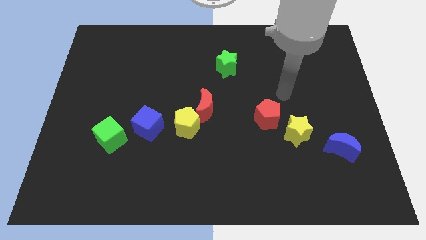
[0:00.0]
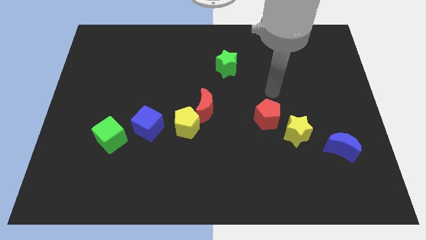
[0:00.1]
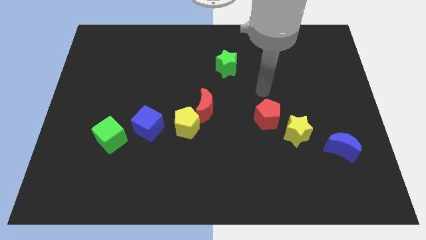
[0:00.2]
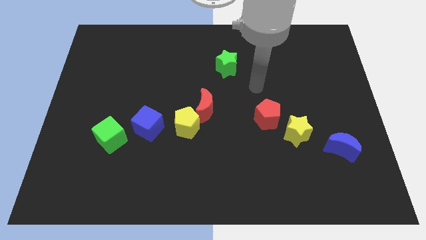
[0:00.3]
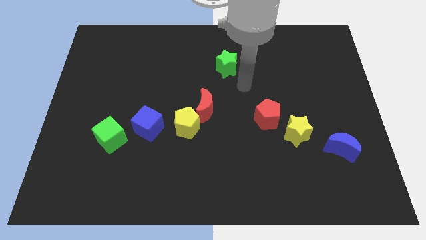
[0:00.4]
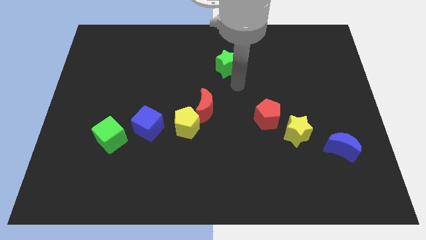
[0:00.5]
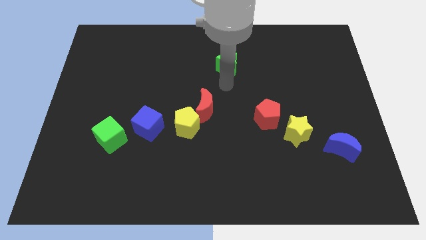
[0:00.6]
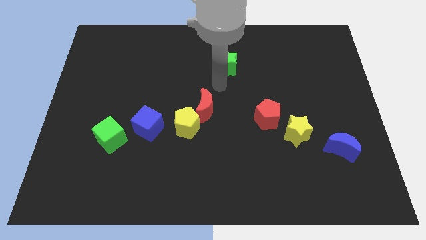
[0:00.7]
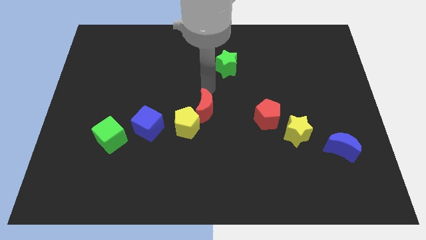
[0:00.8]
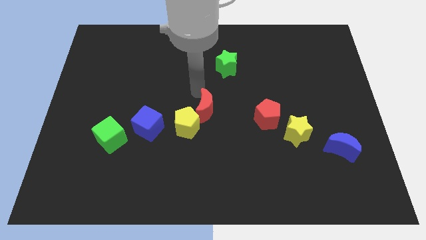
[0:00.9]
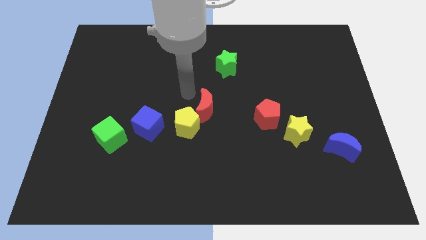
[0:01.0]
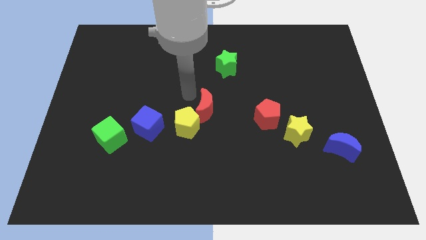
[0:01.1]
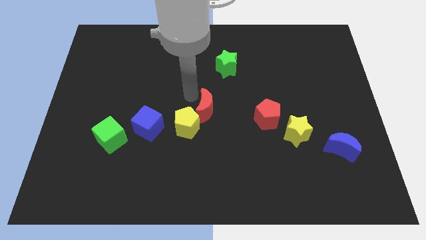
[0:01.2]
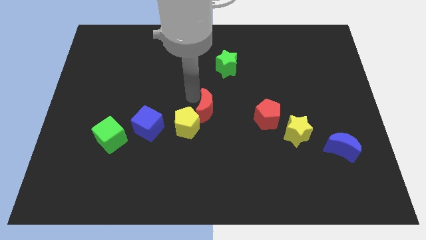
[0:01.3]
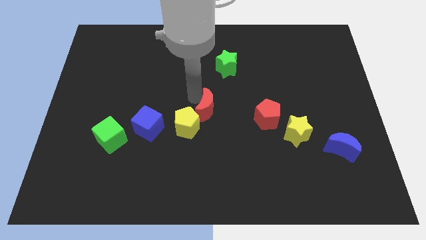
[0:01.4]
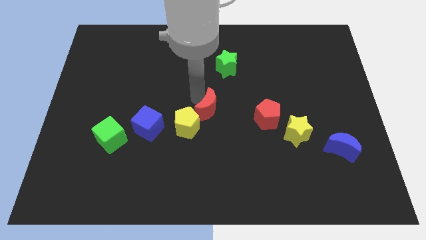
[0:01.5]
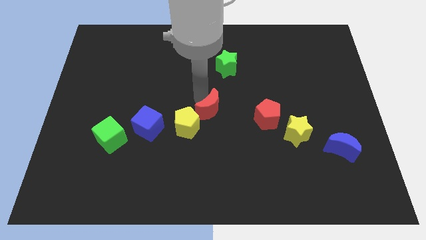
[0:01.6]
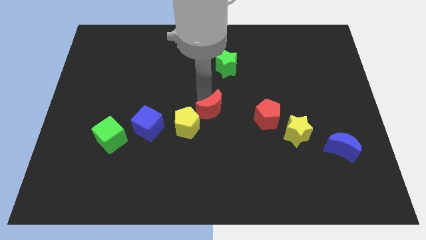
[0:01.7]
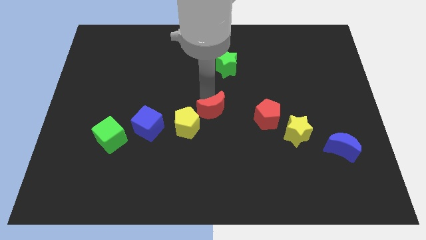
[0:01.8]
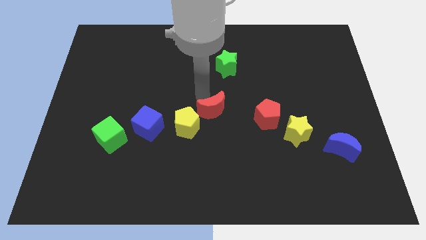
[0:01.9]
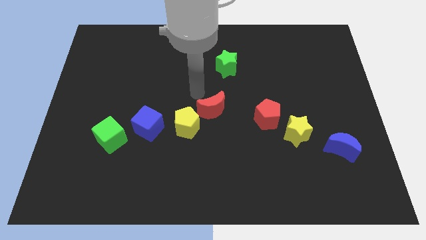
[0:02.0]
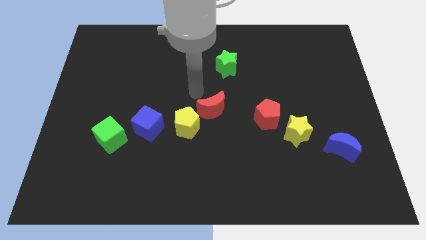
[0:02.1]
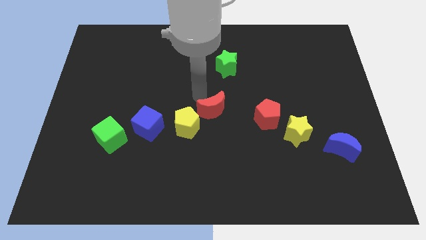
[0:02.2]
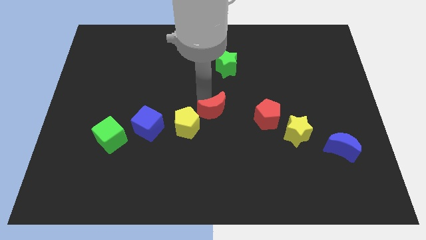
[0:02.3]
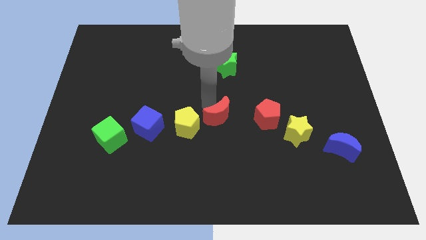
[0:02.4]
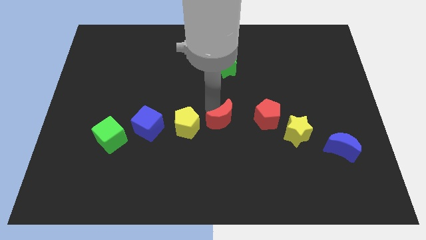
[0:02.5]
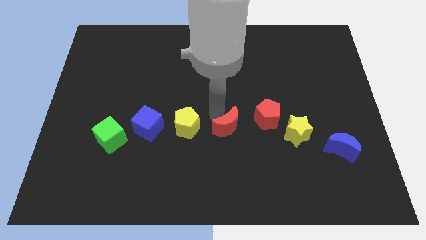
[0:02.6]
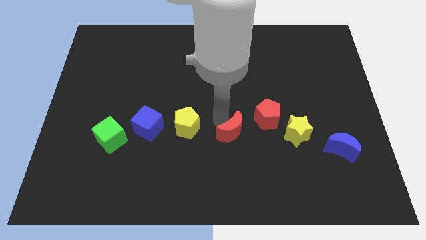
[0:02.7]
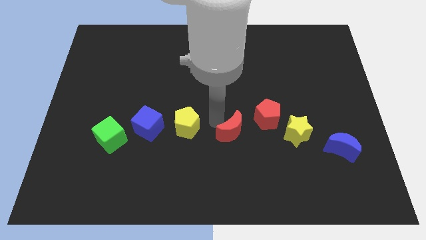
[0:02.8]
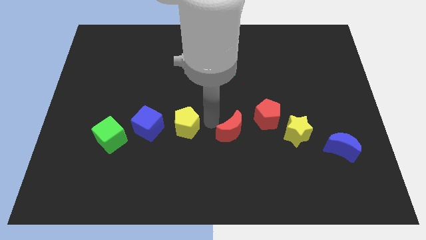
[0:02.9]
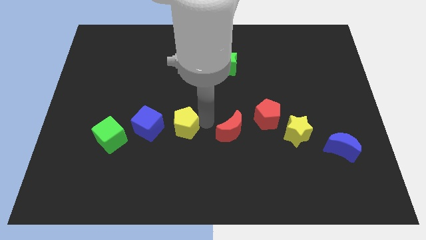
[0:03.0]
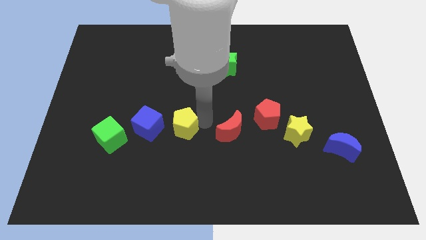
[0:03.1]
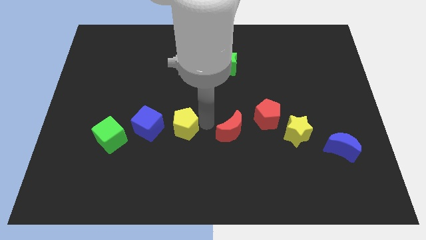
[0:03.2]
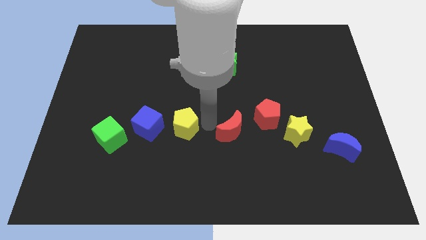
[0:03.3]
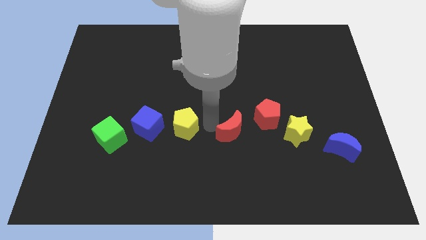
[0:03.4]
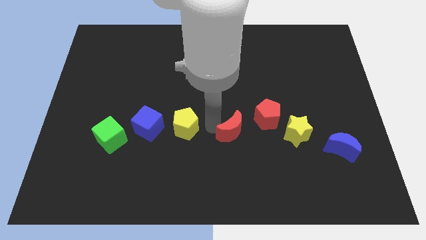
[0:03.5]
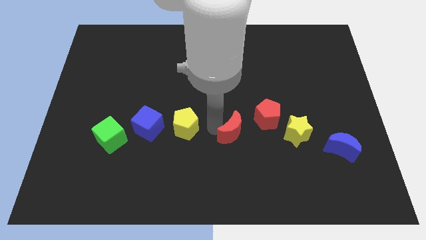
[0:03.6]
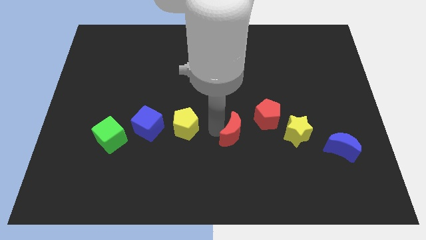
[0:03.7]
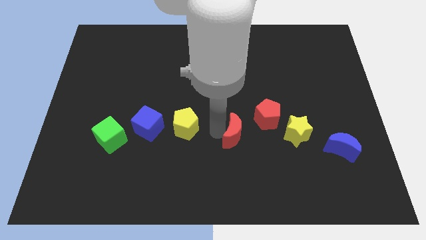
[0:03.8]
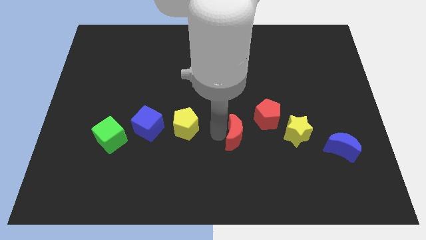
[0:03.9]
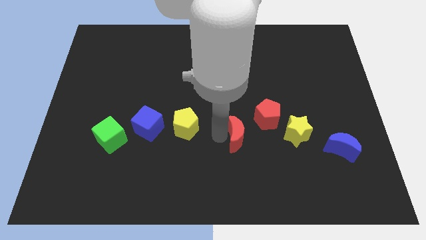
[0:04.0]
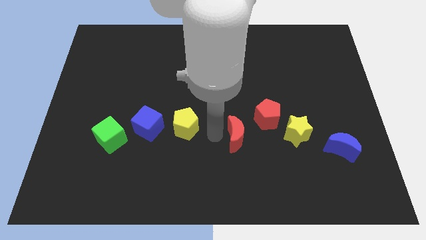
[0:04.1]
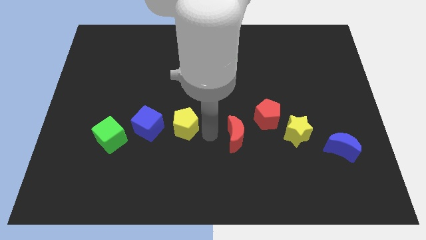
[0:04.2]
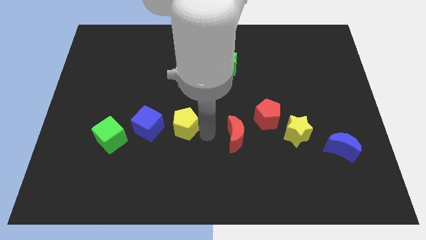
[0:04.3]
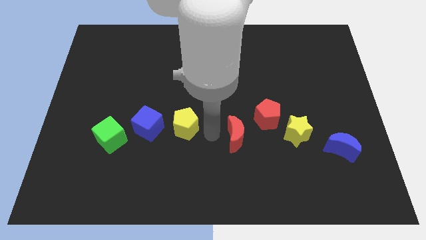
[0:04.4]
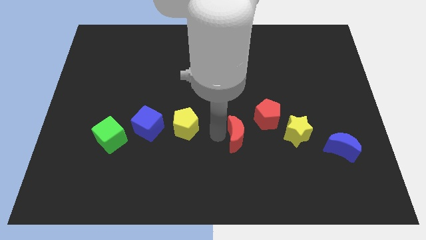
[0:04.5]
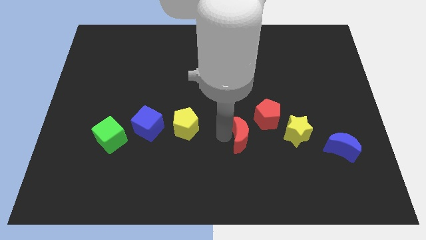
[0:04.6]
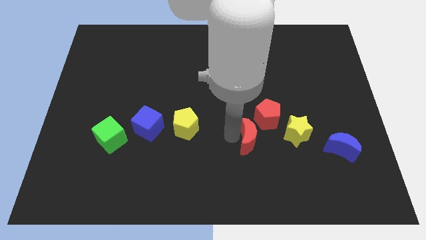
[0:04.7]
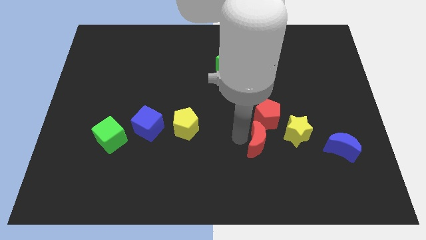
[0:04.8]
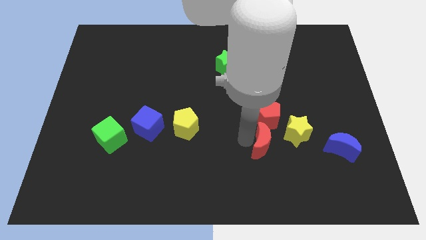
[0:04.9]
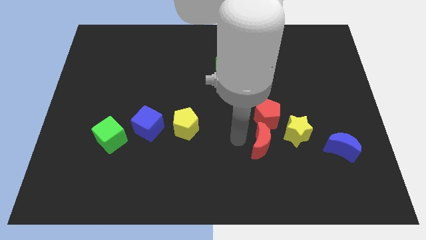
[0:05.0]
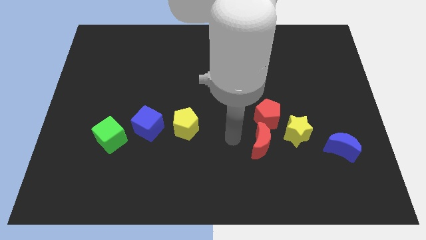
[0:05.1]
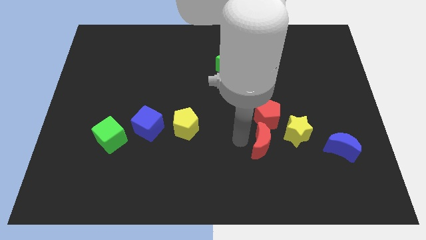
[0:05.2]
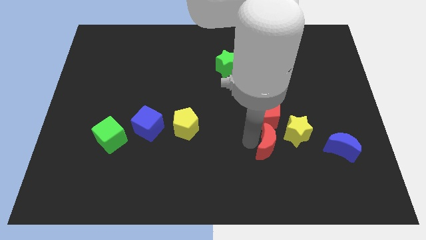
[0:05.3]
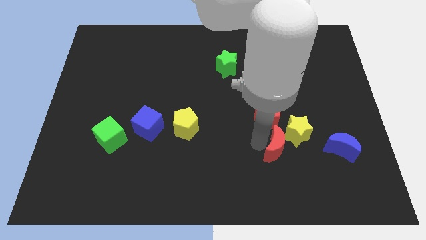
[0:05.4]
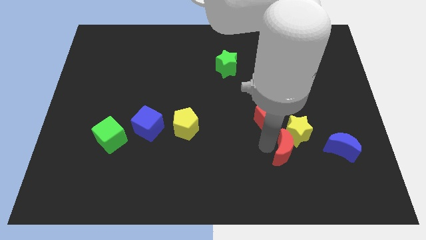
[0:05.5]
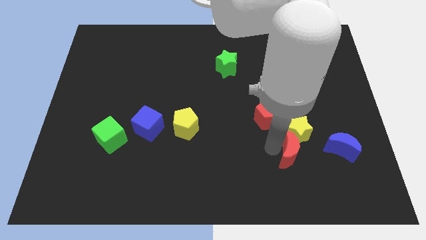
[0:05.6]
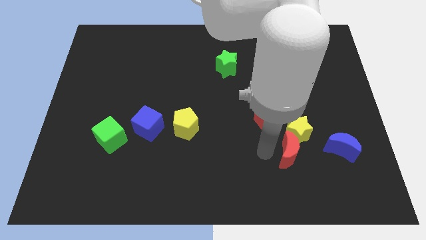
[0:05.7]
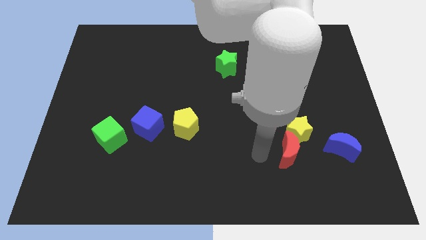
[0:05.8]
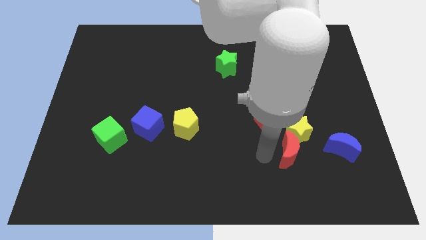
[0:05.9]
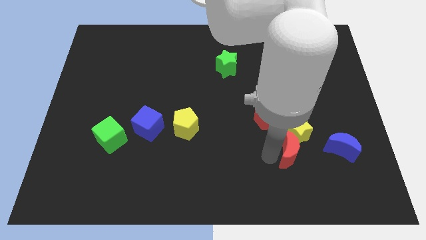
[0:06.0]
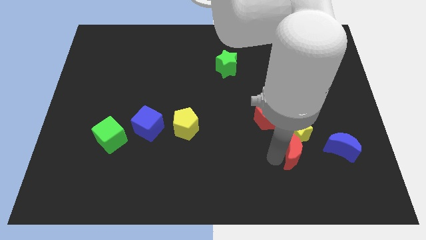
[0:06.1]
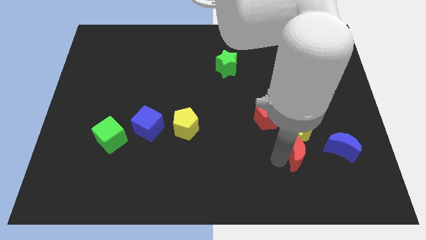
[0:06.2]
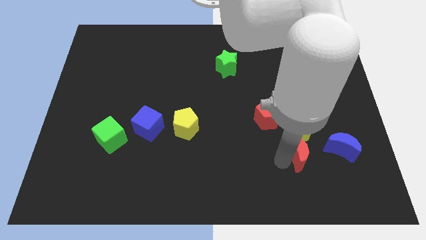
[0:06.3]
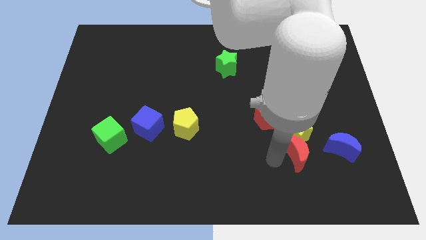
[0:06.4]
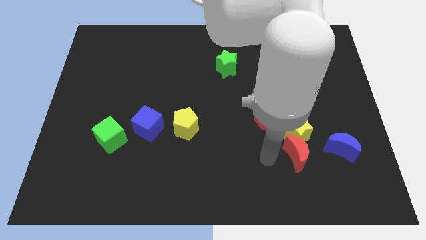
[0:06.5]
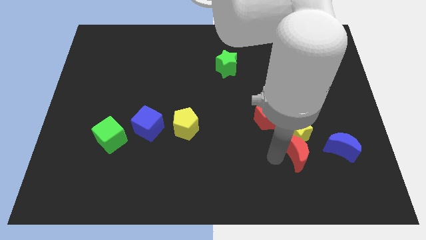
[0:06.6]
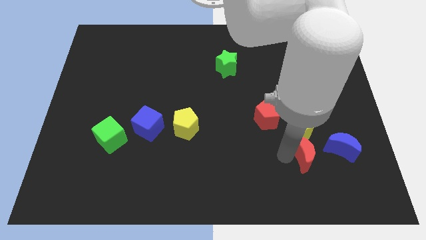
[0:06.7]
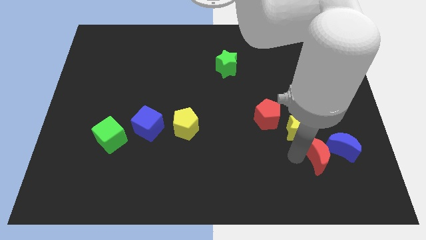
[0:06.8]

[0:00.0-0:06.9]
slide the red moon to the blue moon

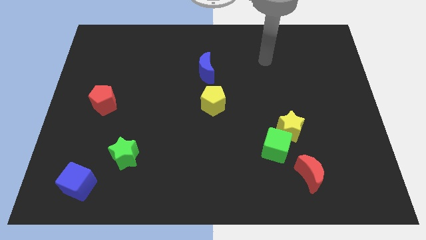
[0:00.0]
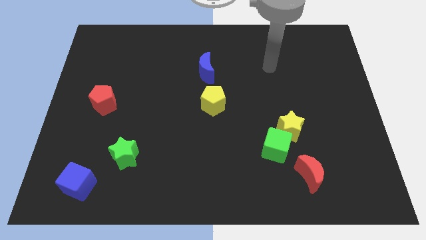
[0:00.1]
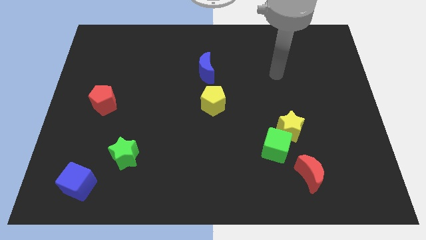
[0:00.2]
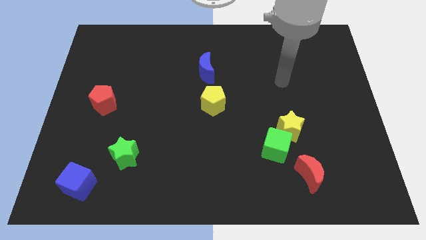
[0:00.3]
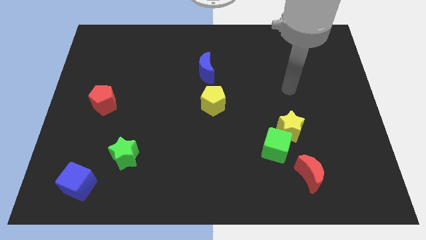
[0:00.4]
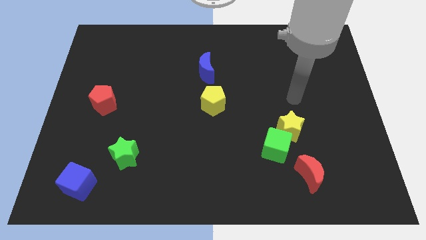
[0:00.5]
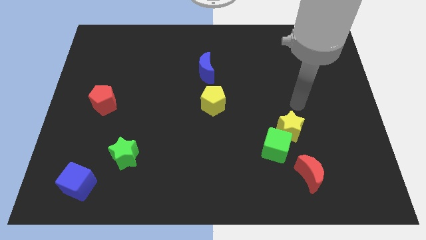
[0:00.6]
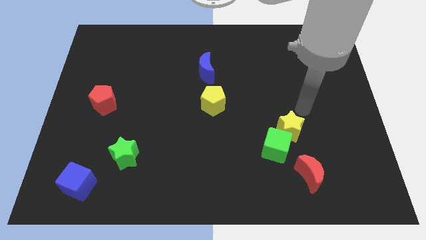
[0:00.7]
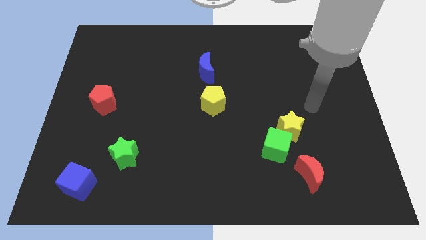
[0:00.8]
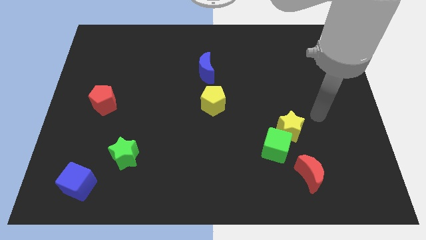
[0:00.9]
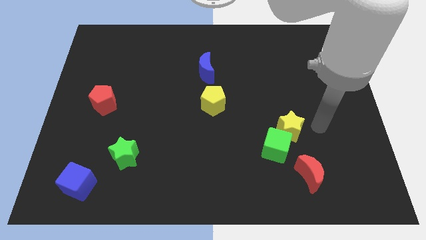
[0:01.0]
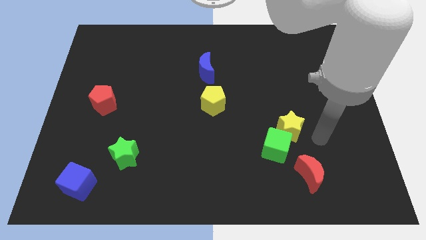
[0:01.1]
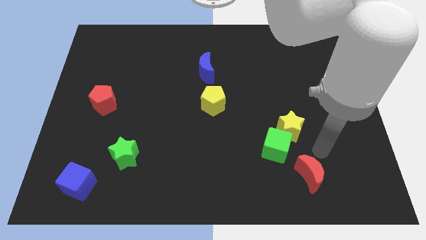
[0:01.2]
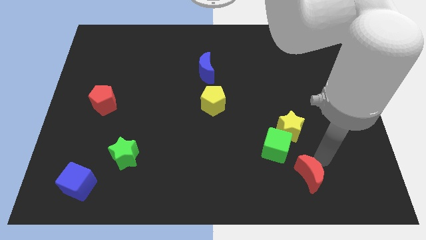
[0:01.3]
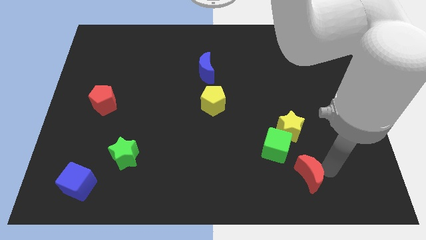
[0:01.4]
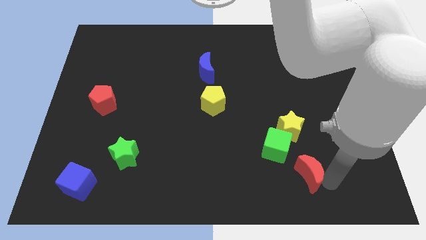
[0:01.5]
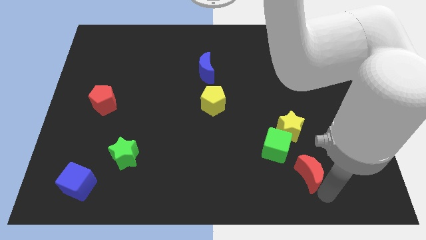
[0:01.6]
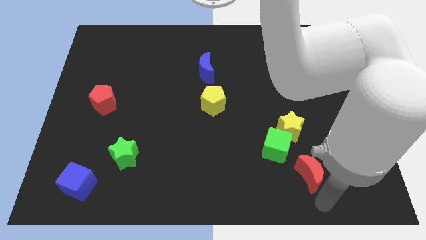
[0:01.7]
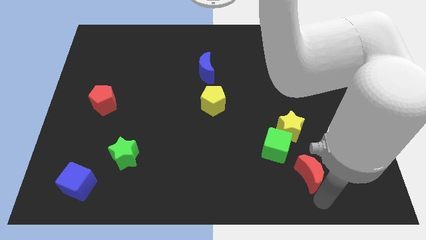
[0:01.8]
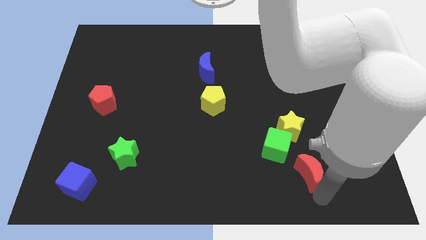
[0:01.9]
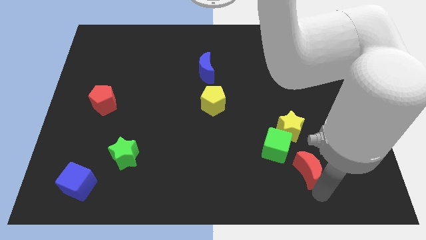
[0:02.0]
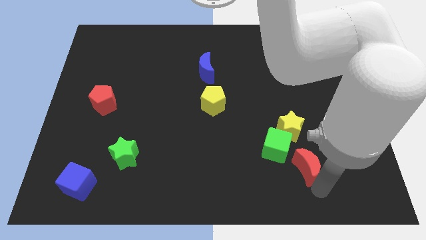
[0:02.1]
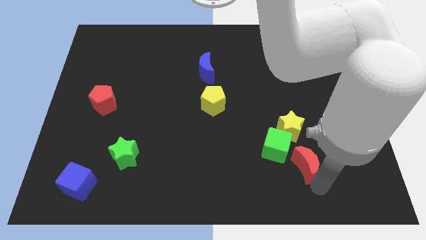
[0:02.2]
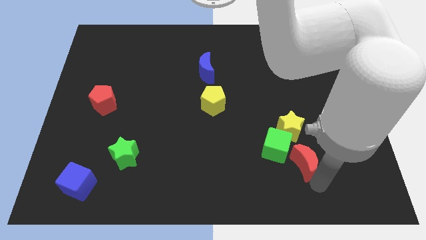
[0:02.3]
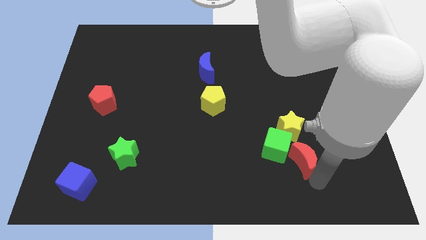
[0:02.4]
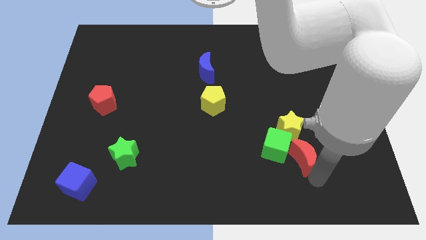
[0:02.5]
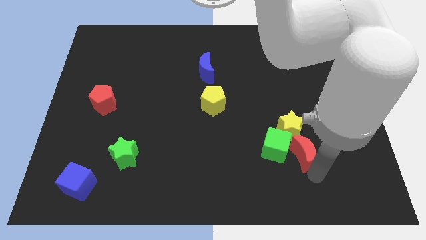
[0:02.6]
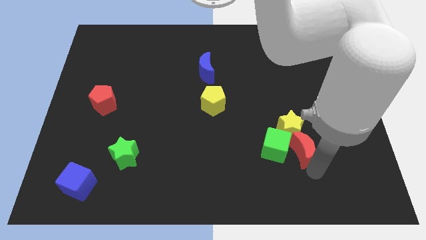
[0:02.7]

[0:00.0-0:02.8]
slide the red moon towards the yellow star
